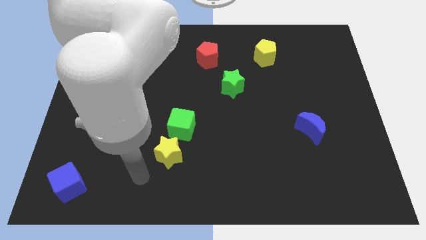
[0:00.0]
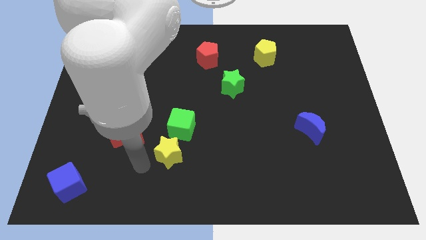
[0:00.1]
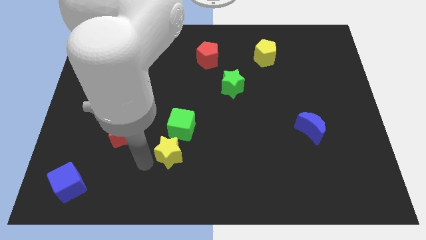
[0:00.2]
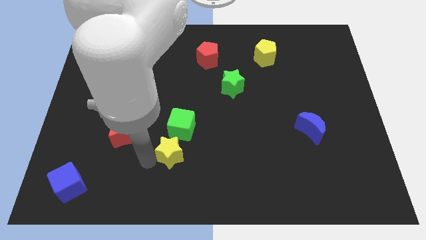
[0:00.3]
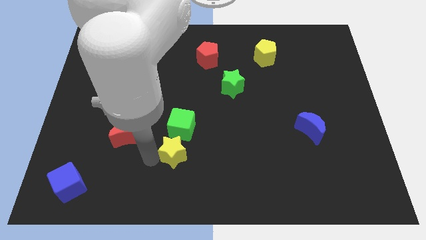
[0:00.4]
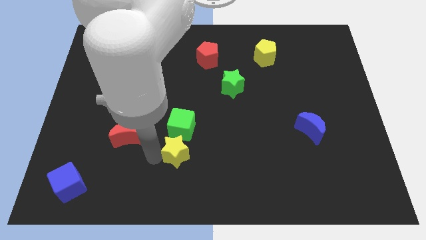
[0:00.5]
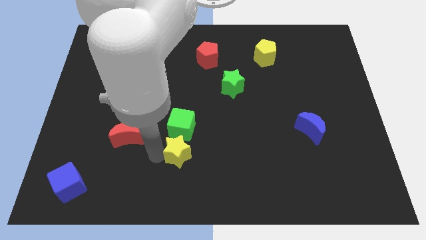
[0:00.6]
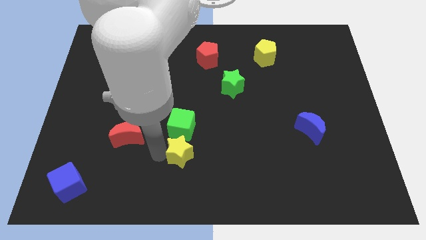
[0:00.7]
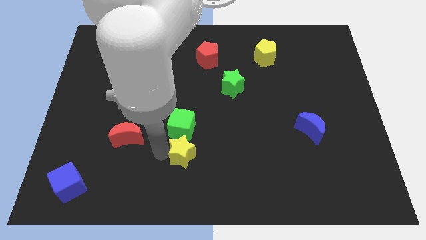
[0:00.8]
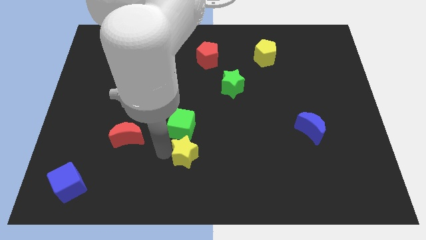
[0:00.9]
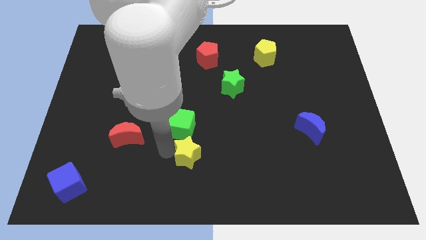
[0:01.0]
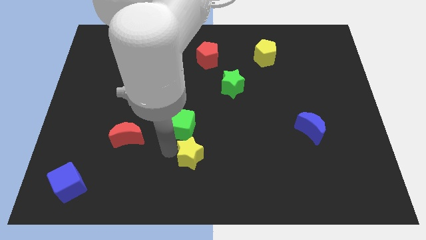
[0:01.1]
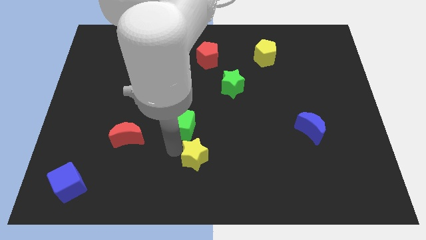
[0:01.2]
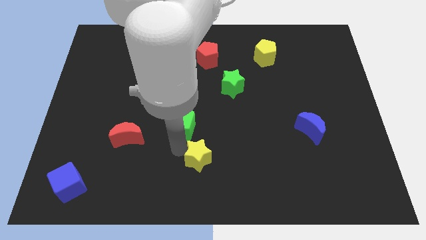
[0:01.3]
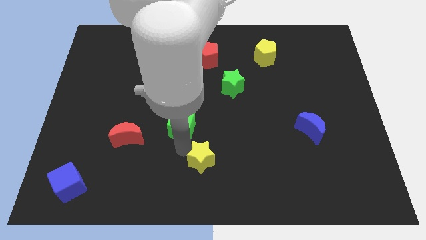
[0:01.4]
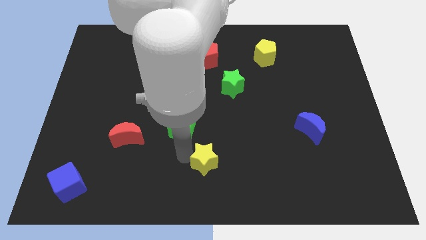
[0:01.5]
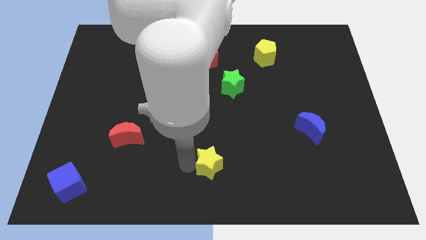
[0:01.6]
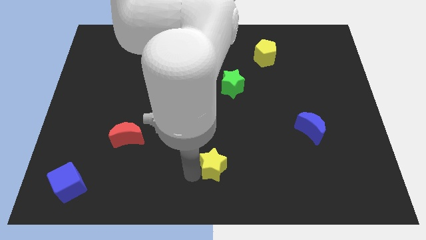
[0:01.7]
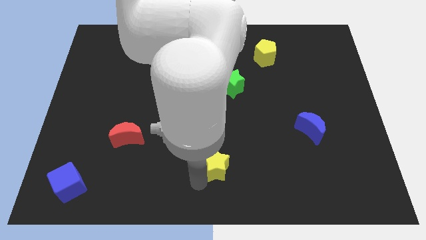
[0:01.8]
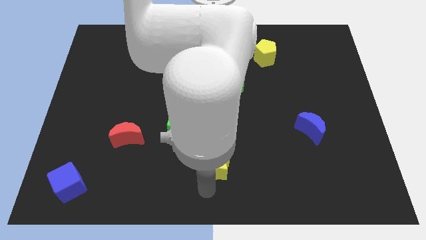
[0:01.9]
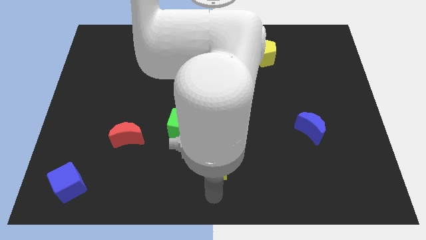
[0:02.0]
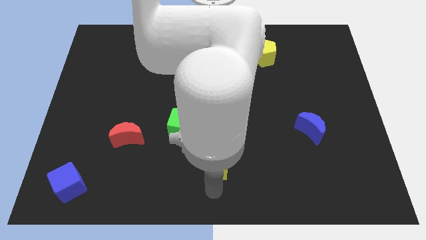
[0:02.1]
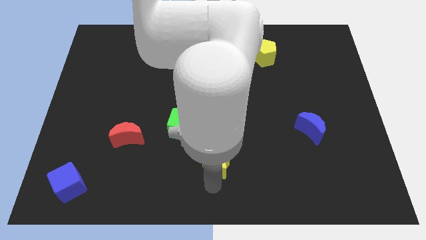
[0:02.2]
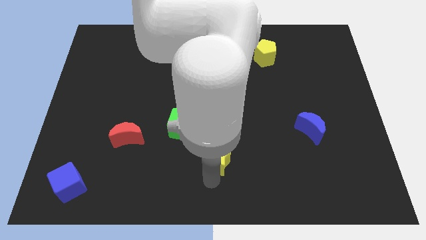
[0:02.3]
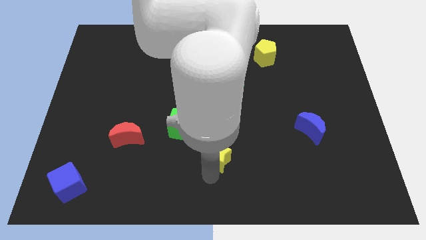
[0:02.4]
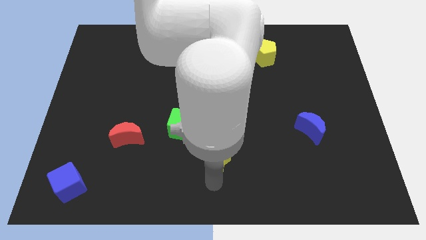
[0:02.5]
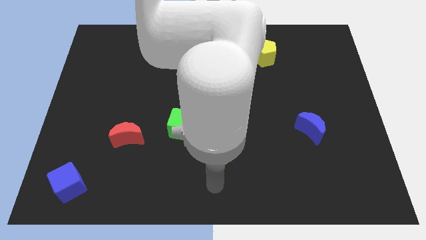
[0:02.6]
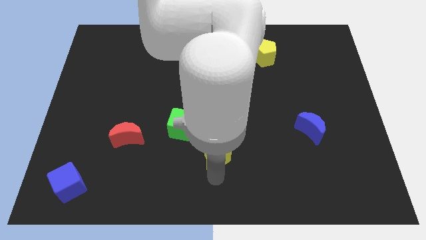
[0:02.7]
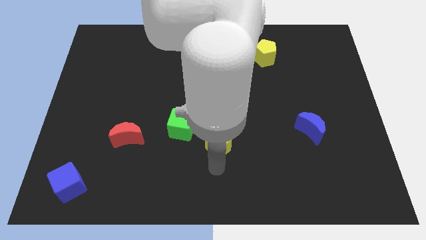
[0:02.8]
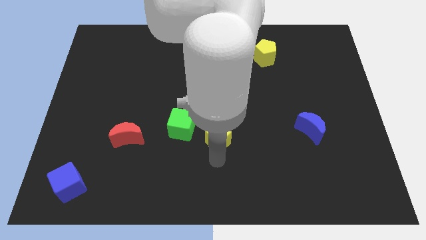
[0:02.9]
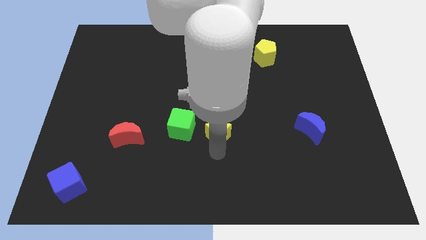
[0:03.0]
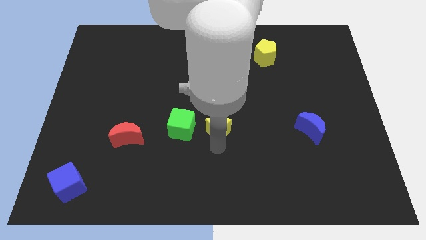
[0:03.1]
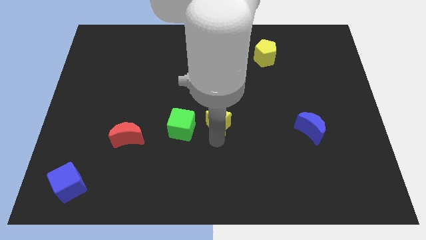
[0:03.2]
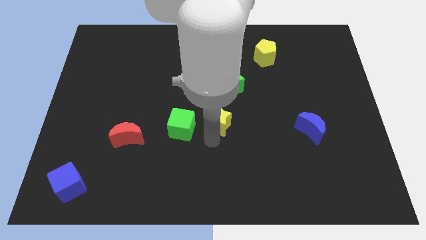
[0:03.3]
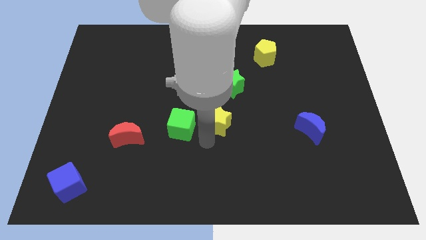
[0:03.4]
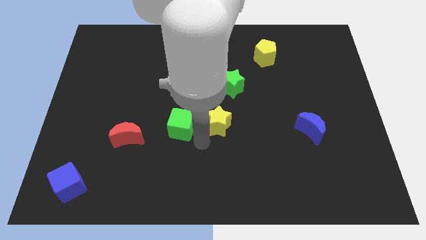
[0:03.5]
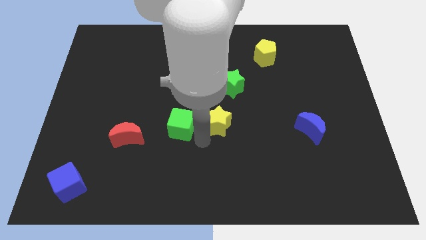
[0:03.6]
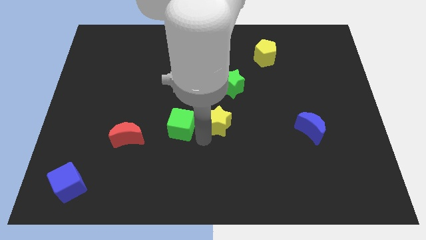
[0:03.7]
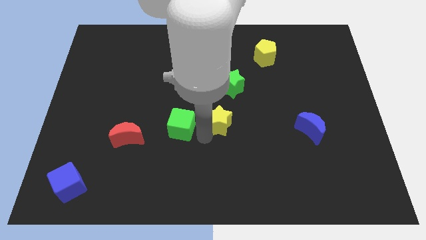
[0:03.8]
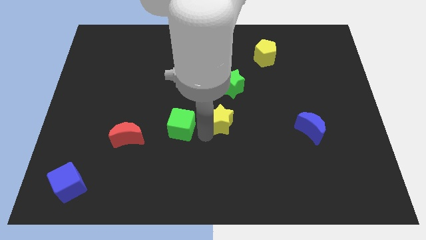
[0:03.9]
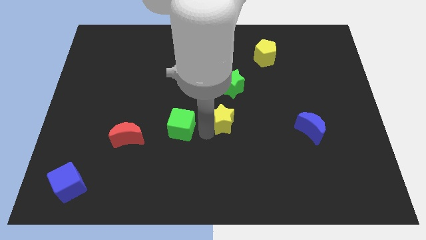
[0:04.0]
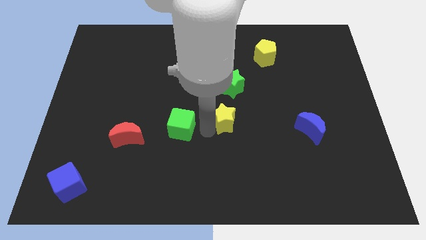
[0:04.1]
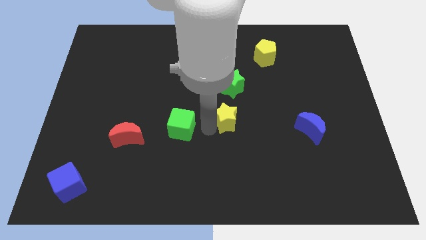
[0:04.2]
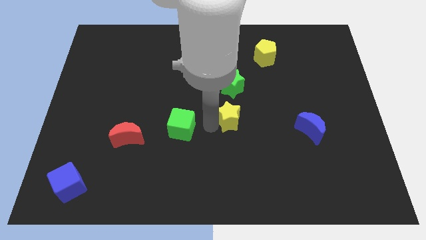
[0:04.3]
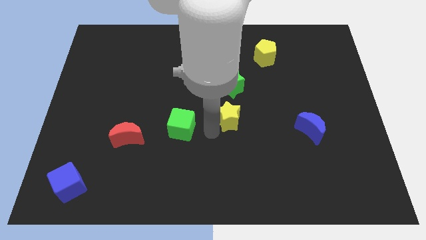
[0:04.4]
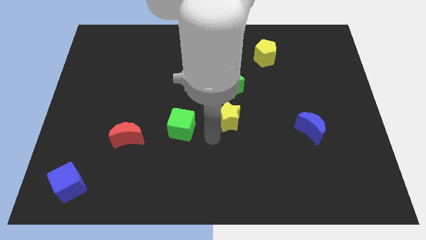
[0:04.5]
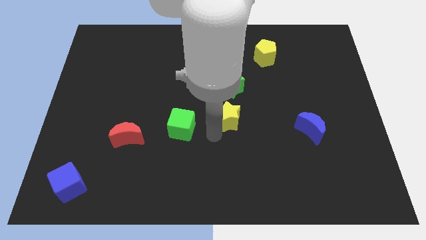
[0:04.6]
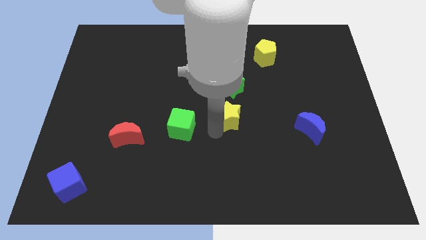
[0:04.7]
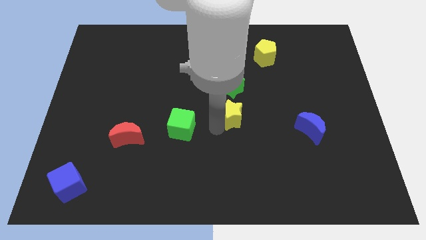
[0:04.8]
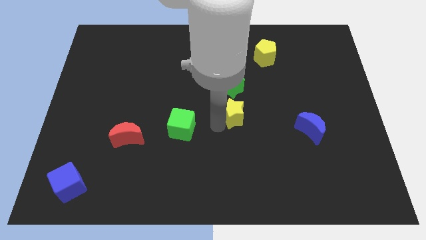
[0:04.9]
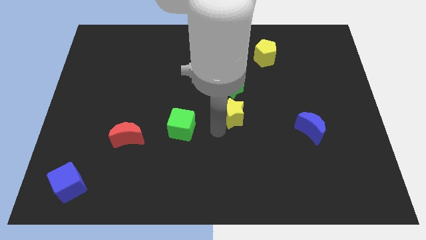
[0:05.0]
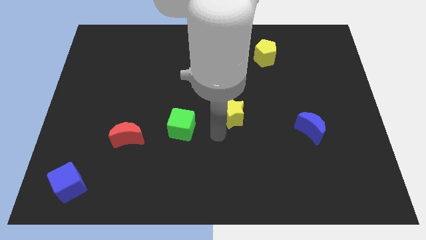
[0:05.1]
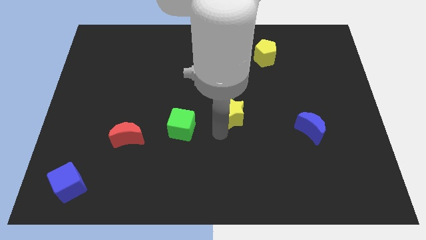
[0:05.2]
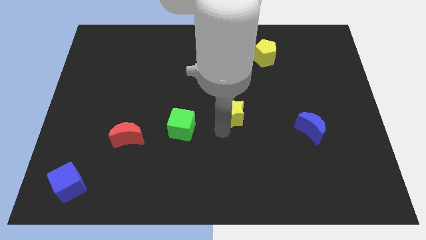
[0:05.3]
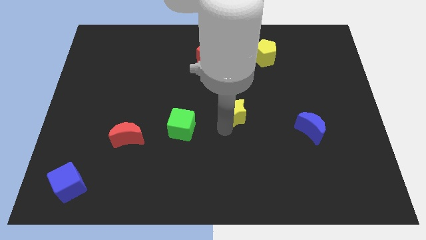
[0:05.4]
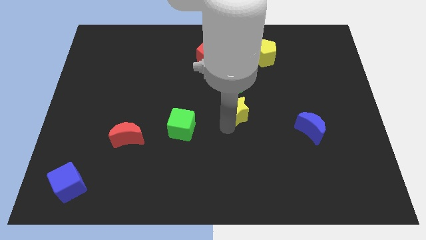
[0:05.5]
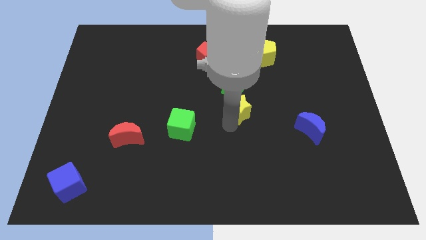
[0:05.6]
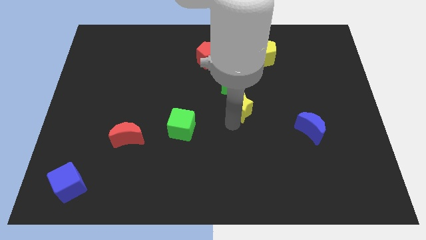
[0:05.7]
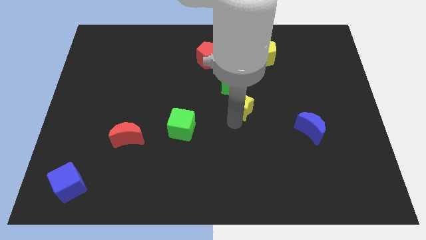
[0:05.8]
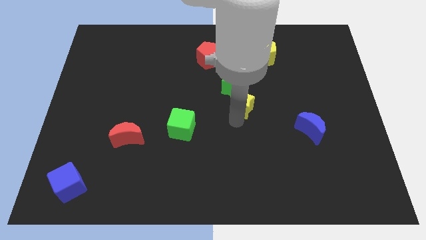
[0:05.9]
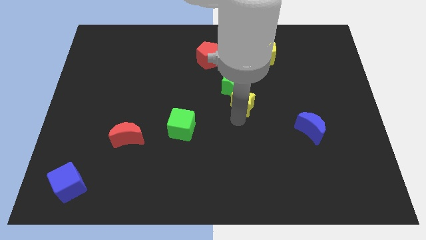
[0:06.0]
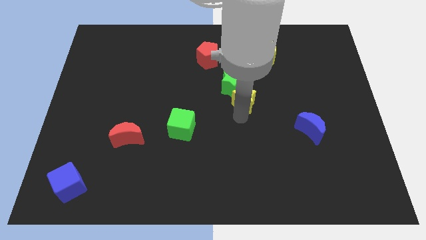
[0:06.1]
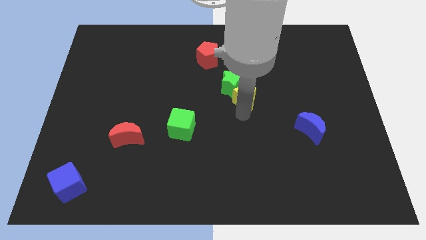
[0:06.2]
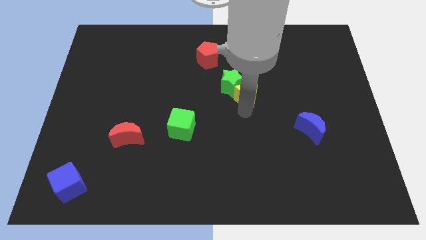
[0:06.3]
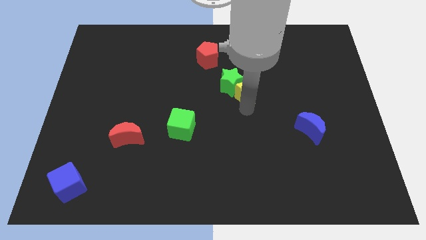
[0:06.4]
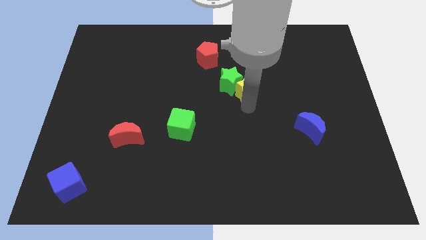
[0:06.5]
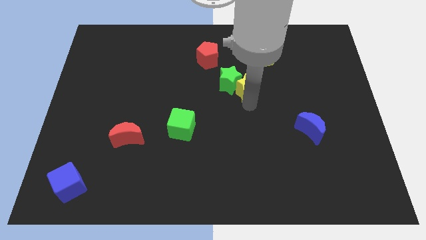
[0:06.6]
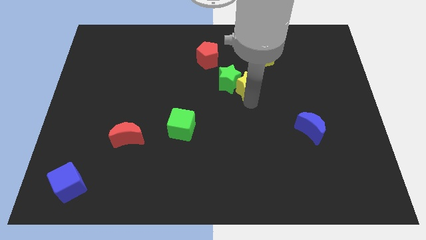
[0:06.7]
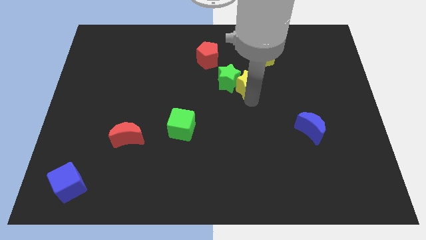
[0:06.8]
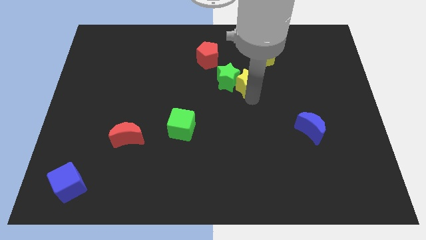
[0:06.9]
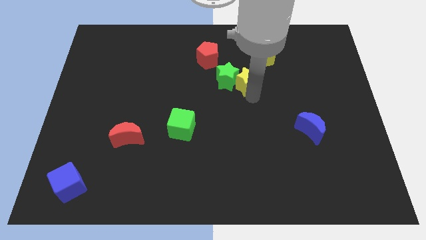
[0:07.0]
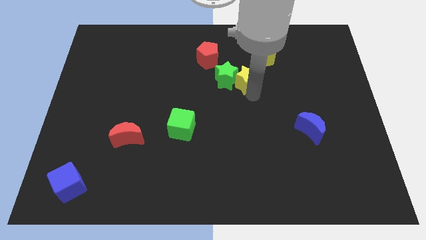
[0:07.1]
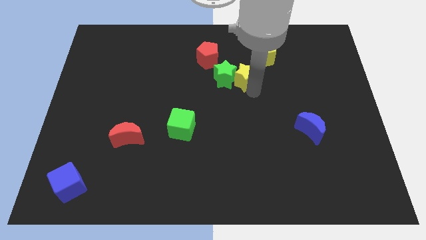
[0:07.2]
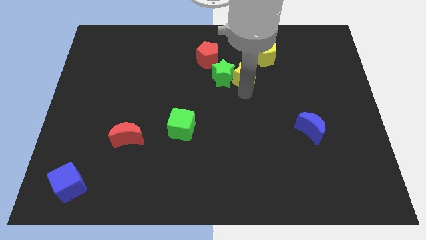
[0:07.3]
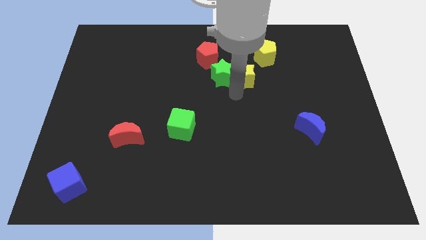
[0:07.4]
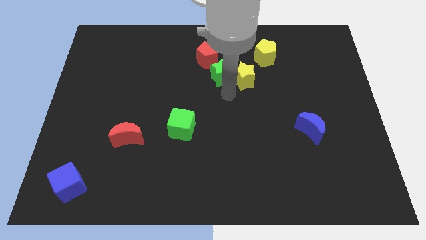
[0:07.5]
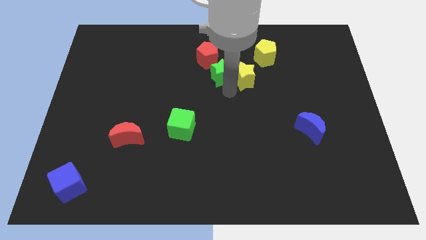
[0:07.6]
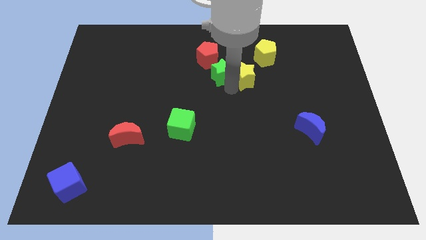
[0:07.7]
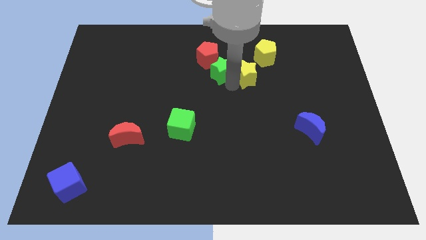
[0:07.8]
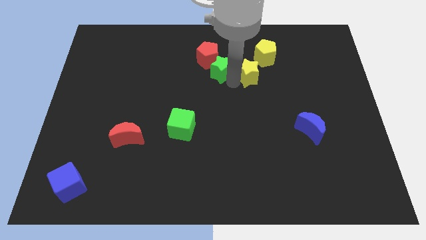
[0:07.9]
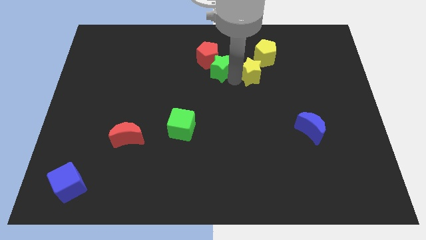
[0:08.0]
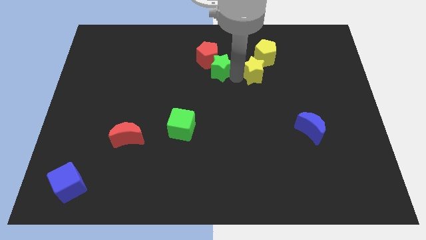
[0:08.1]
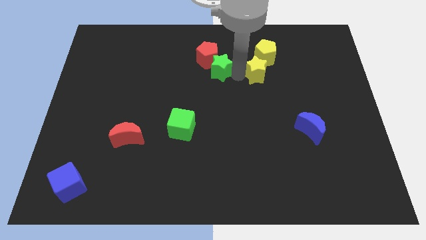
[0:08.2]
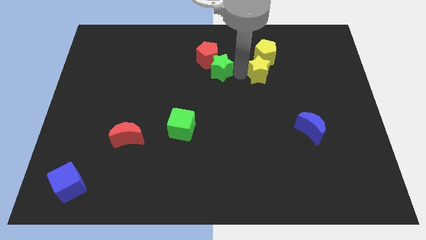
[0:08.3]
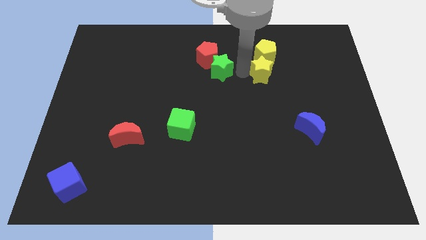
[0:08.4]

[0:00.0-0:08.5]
put the yellow star to the yellow pentagon
